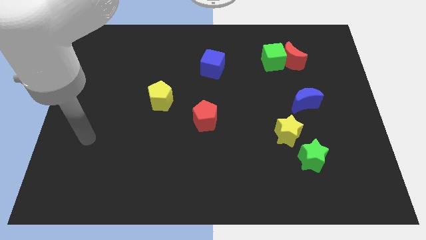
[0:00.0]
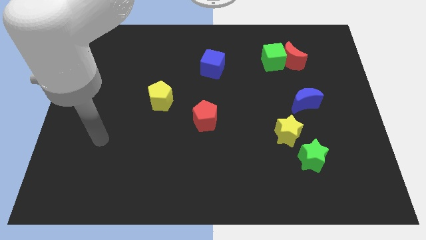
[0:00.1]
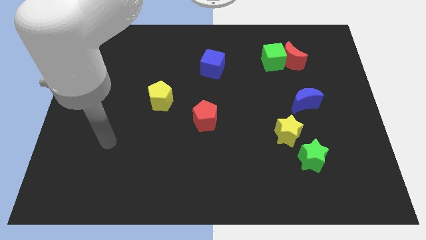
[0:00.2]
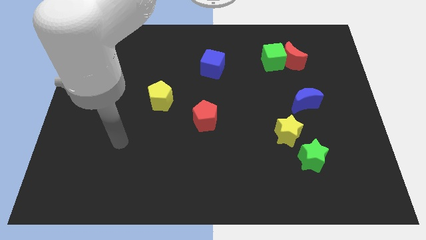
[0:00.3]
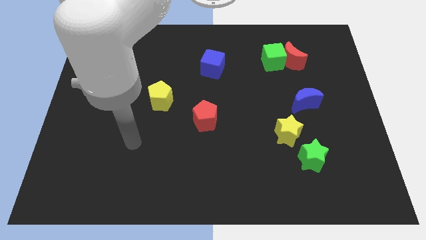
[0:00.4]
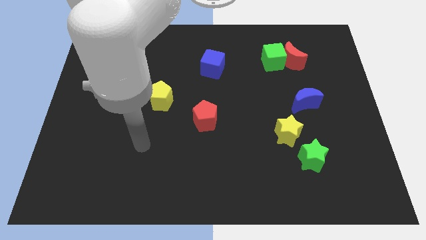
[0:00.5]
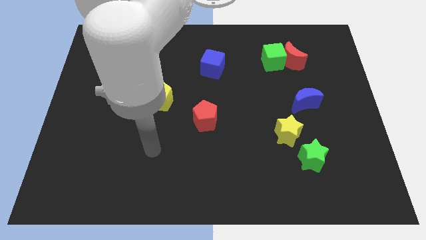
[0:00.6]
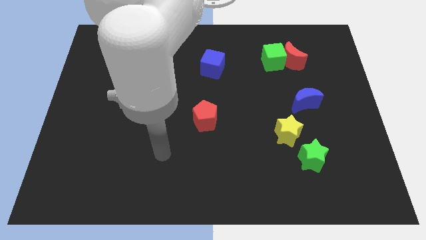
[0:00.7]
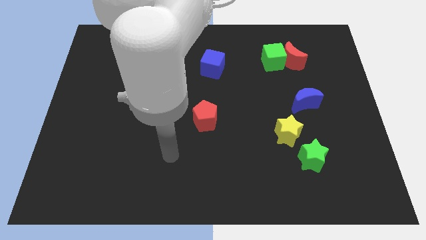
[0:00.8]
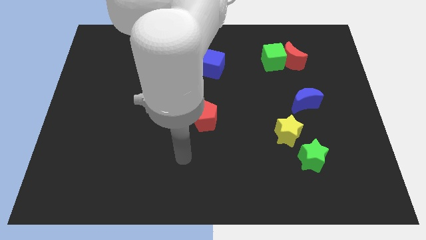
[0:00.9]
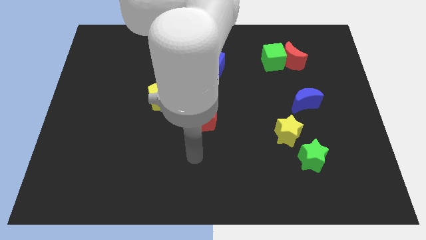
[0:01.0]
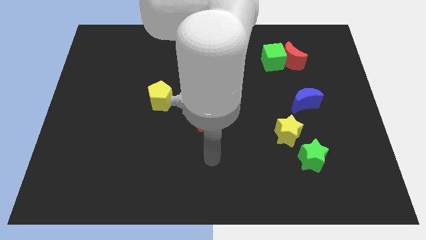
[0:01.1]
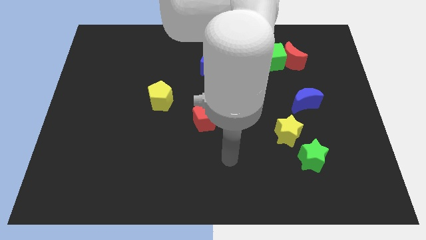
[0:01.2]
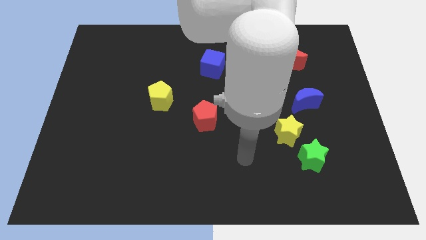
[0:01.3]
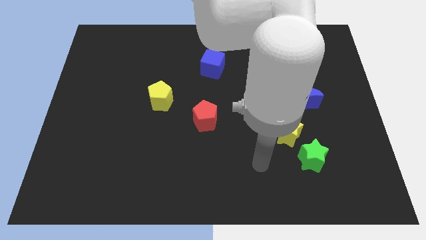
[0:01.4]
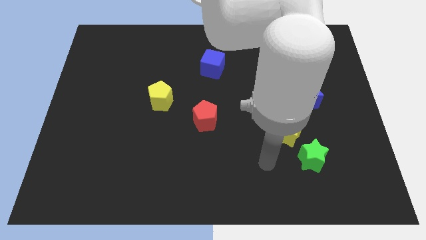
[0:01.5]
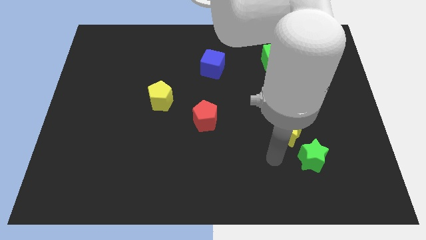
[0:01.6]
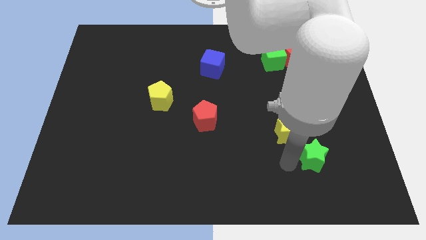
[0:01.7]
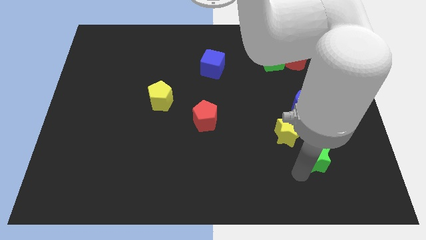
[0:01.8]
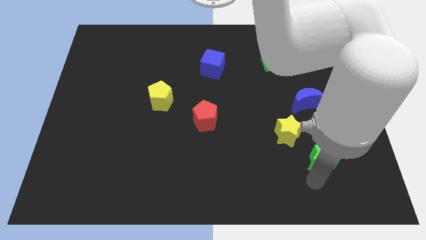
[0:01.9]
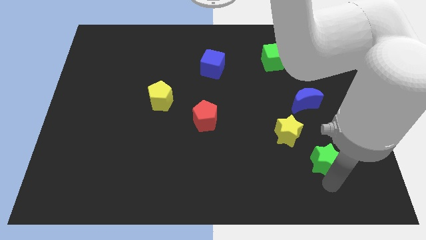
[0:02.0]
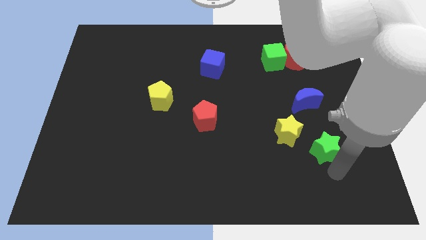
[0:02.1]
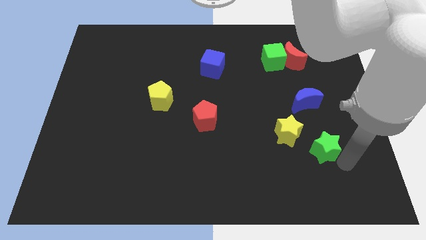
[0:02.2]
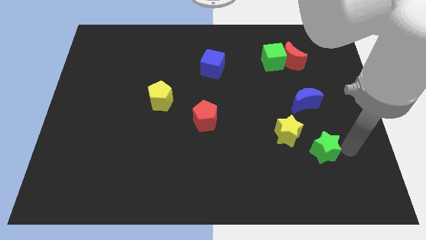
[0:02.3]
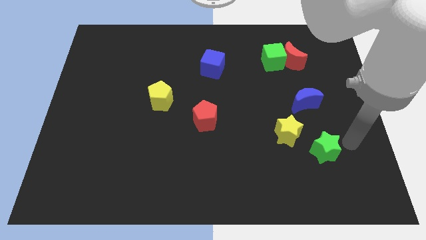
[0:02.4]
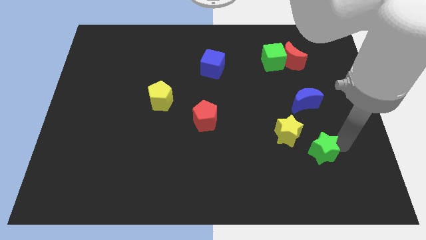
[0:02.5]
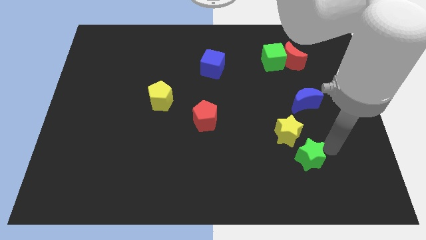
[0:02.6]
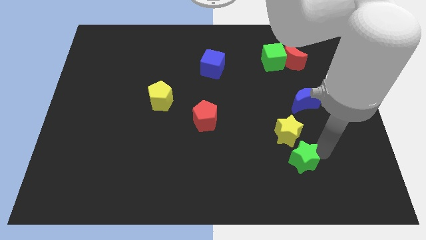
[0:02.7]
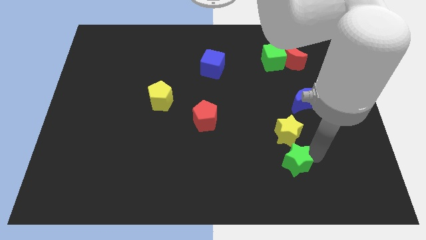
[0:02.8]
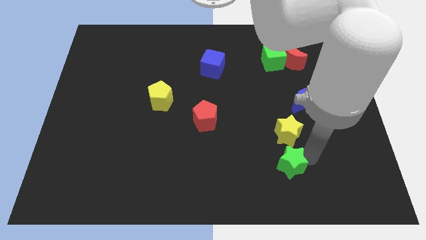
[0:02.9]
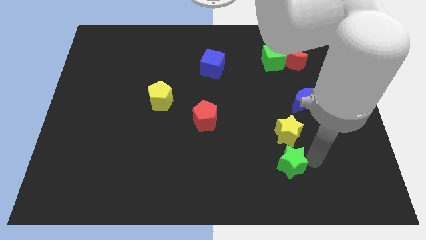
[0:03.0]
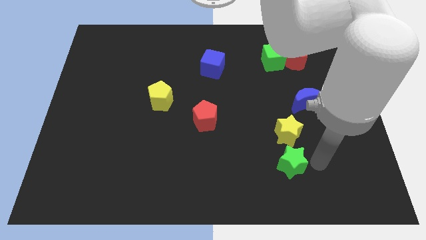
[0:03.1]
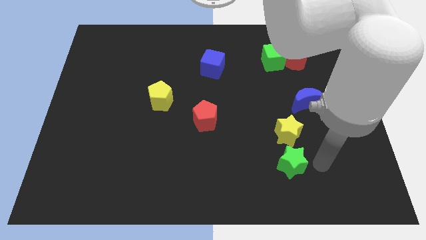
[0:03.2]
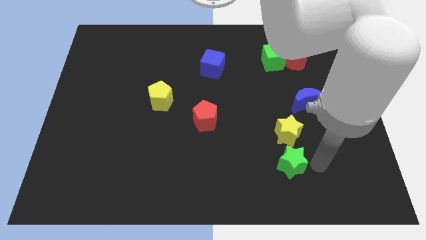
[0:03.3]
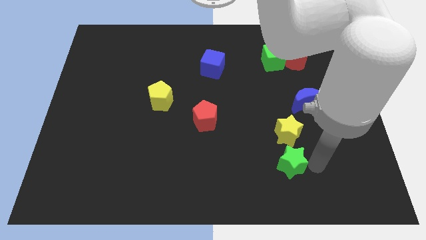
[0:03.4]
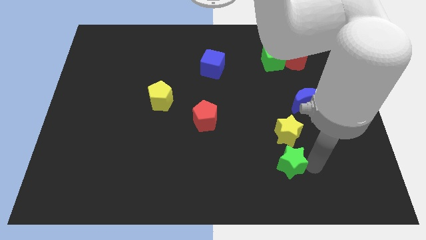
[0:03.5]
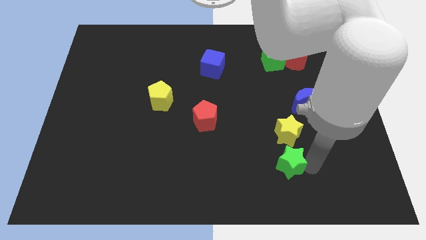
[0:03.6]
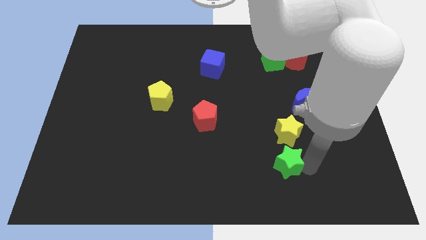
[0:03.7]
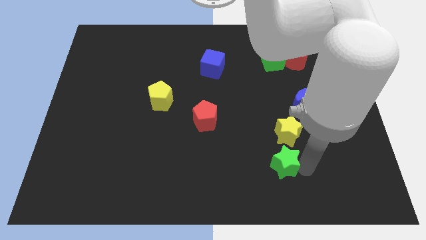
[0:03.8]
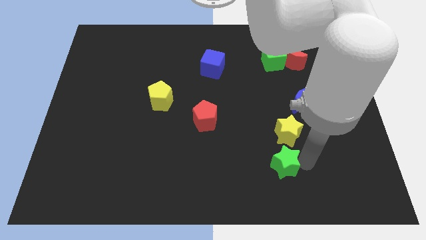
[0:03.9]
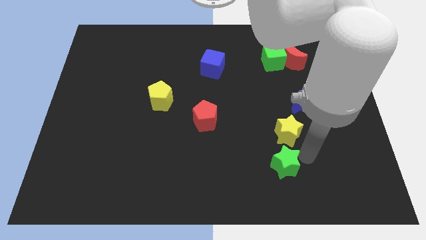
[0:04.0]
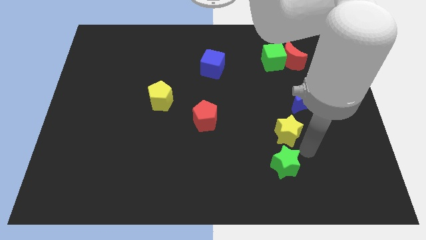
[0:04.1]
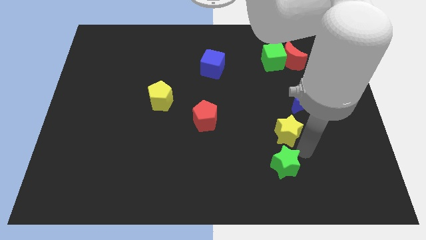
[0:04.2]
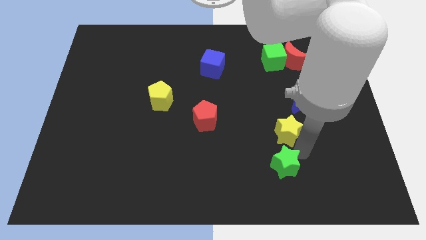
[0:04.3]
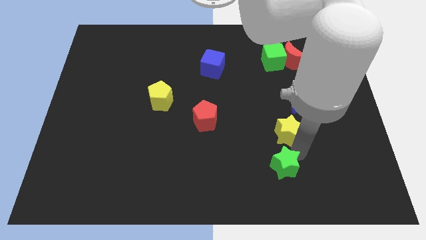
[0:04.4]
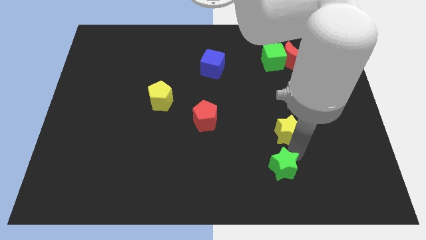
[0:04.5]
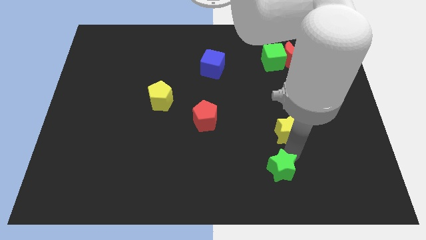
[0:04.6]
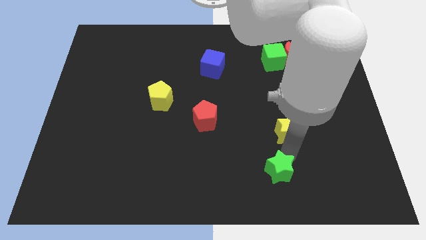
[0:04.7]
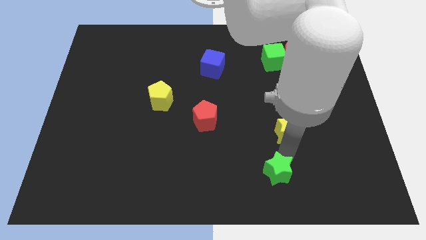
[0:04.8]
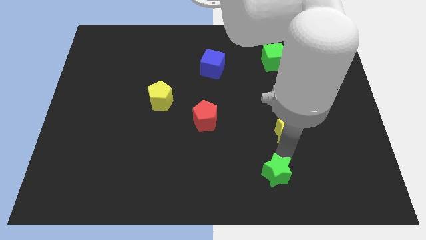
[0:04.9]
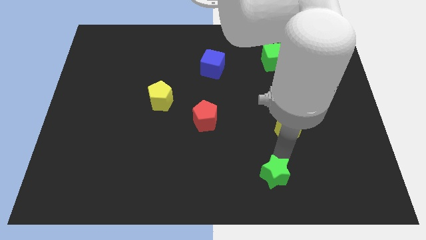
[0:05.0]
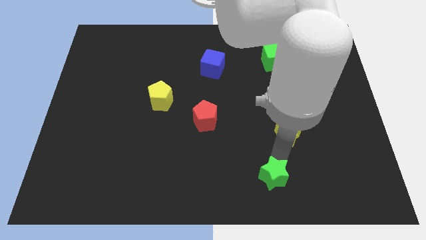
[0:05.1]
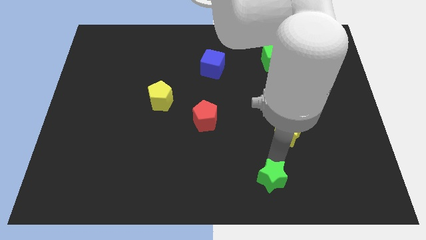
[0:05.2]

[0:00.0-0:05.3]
move the green star to the bottom side

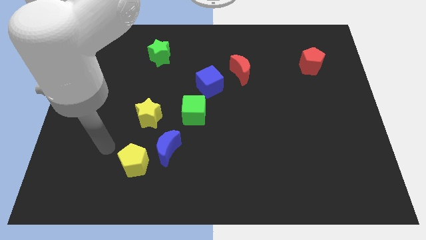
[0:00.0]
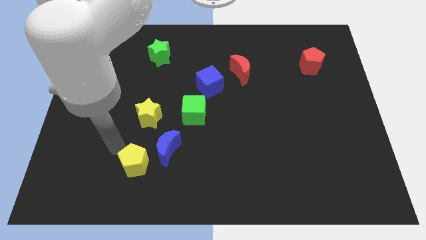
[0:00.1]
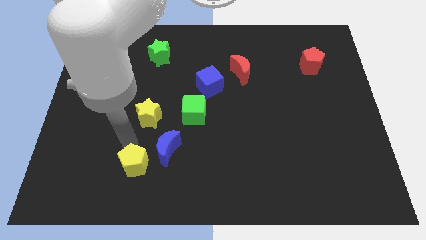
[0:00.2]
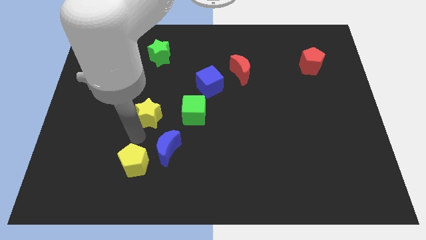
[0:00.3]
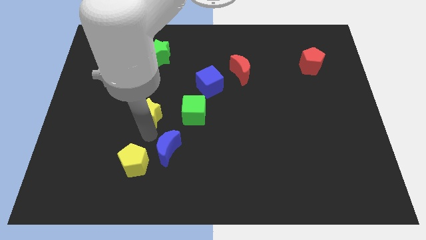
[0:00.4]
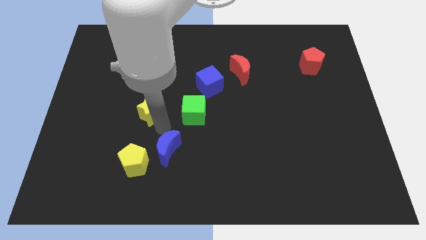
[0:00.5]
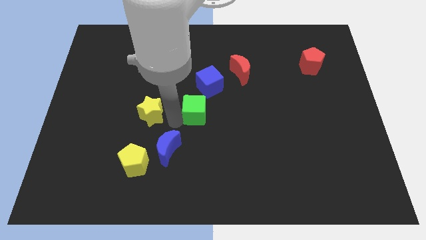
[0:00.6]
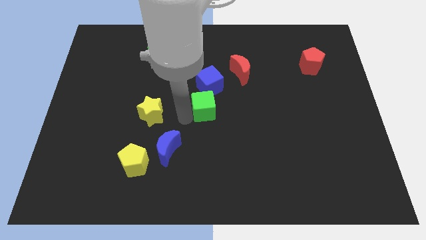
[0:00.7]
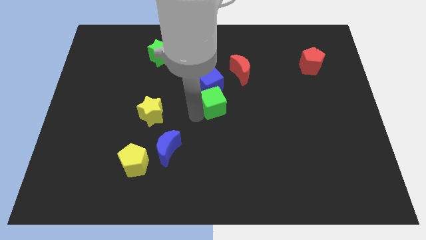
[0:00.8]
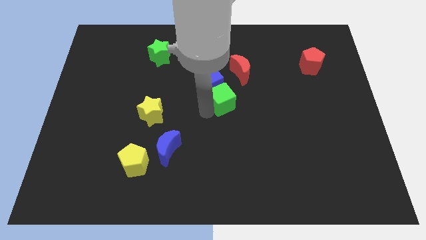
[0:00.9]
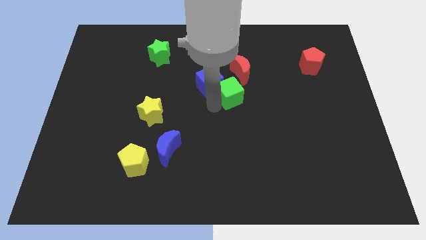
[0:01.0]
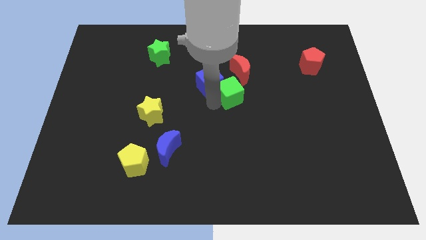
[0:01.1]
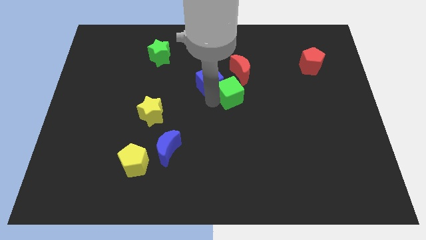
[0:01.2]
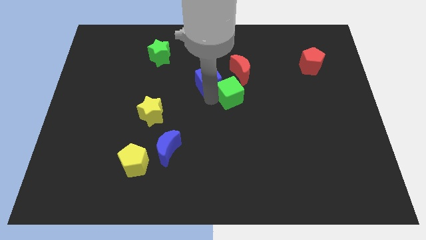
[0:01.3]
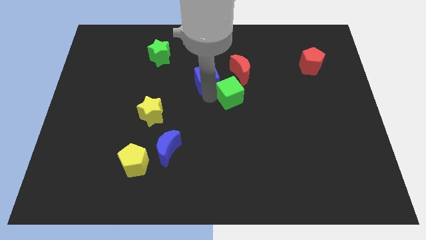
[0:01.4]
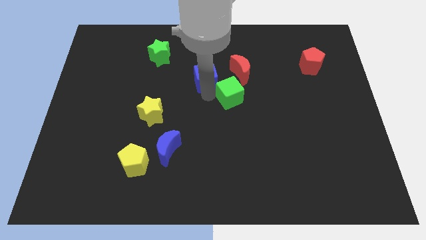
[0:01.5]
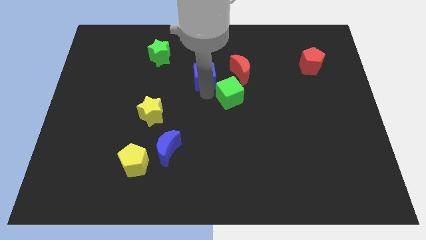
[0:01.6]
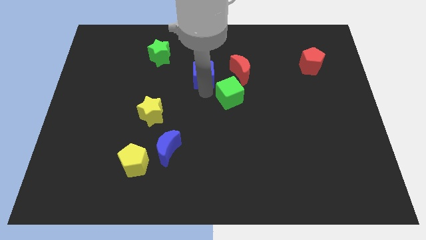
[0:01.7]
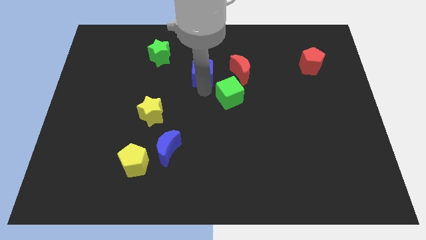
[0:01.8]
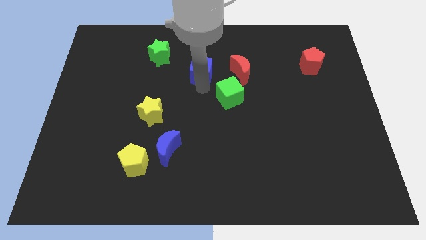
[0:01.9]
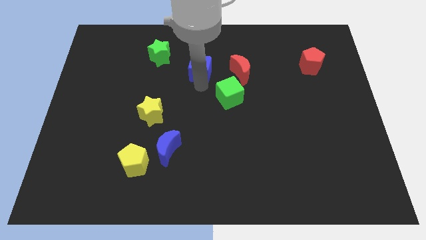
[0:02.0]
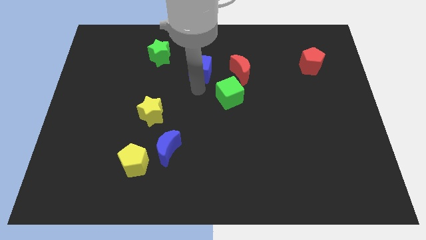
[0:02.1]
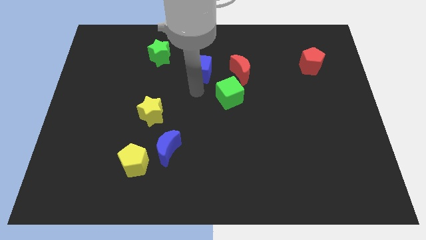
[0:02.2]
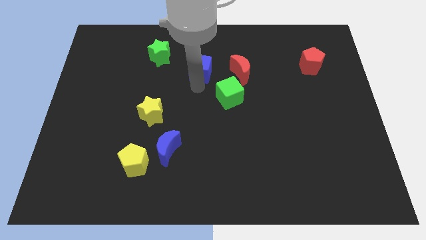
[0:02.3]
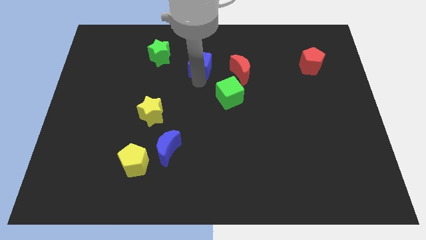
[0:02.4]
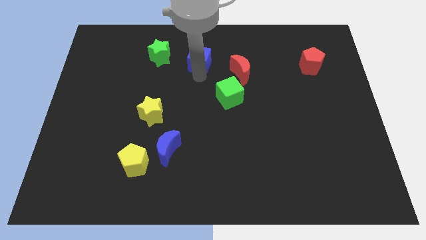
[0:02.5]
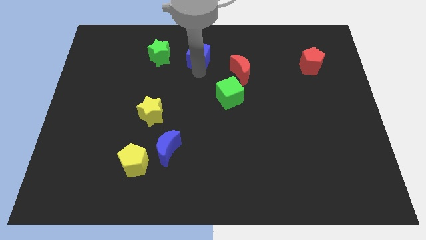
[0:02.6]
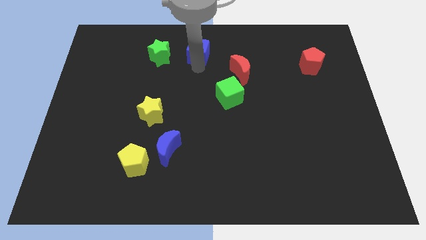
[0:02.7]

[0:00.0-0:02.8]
slide the blue cube to the top side
